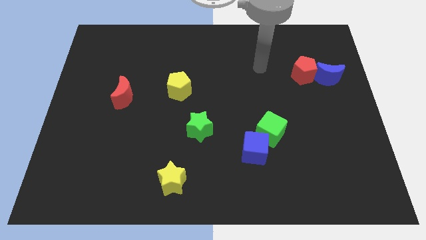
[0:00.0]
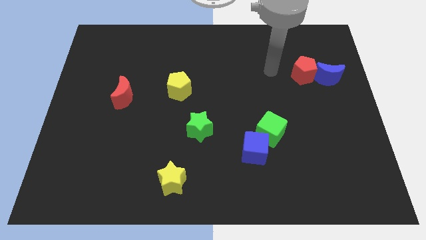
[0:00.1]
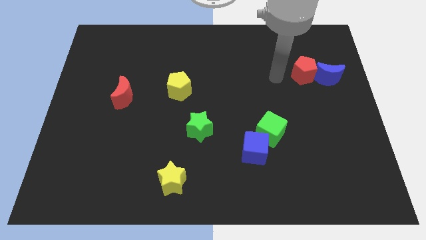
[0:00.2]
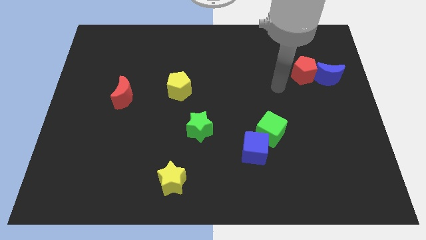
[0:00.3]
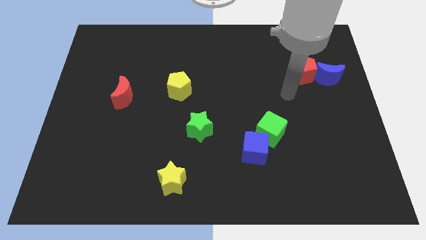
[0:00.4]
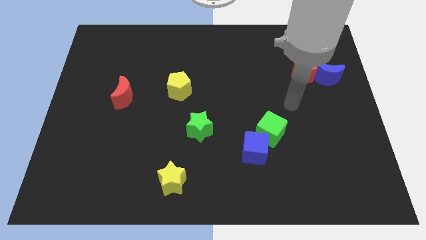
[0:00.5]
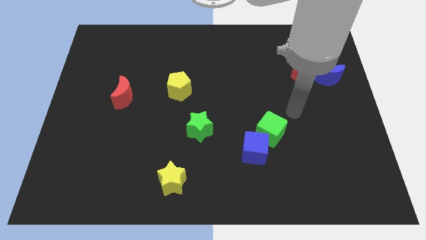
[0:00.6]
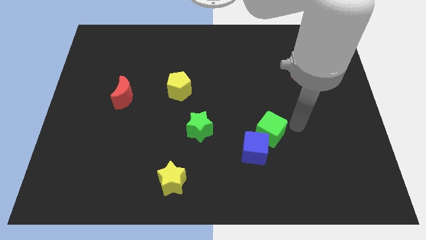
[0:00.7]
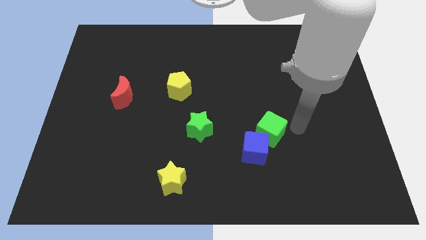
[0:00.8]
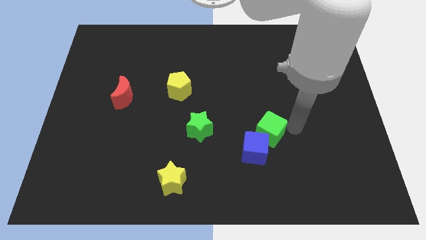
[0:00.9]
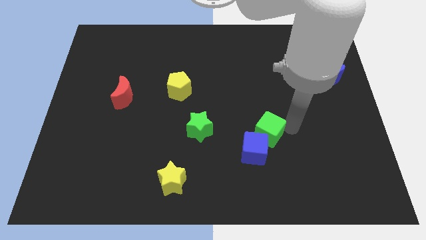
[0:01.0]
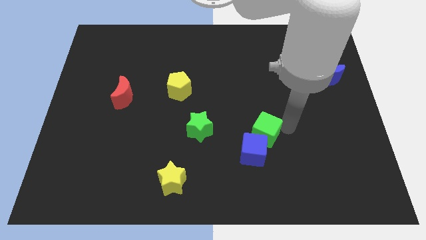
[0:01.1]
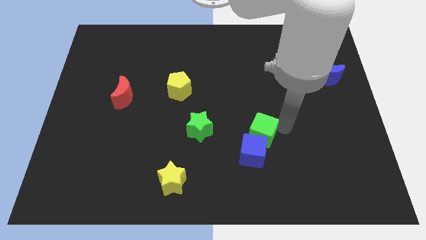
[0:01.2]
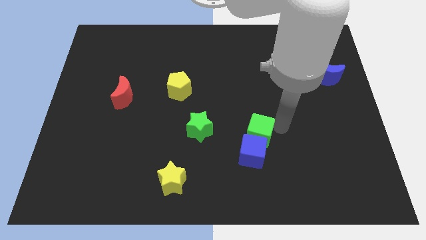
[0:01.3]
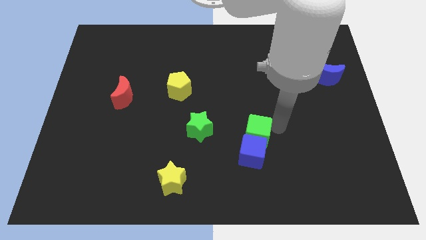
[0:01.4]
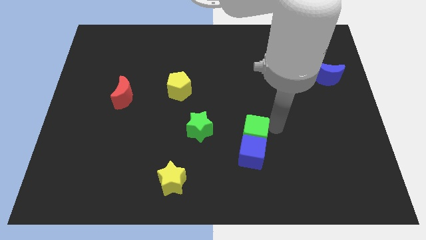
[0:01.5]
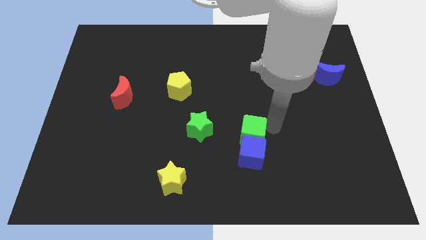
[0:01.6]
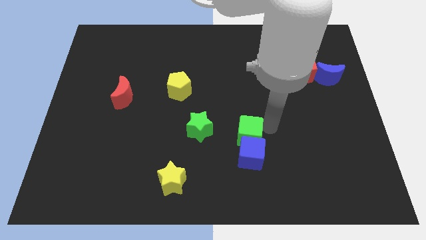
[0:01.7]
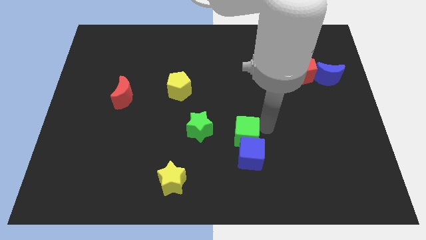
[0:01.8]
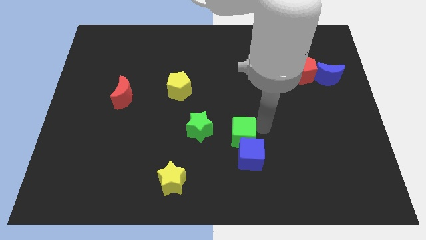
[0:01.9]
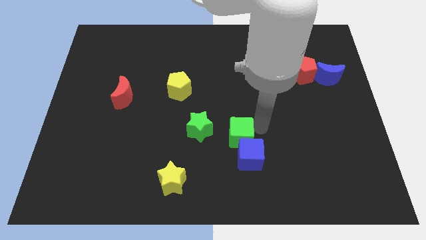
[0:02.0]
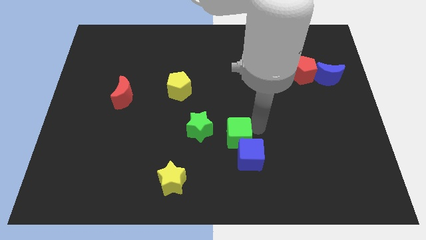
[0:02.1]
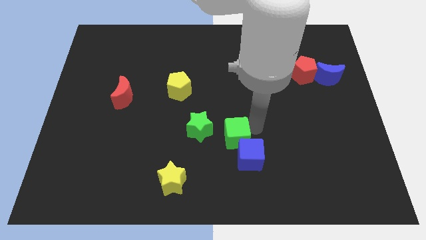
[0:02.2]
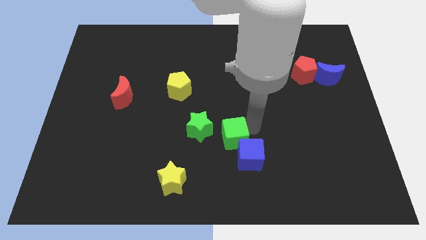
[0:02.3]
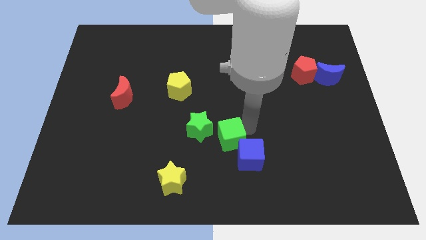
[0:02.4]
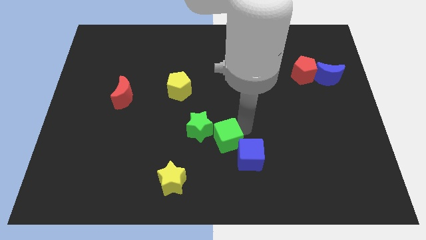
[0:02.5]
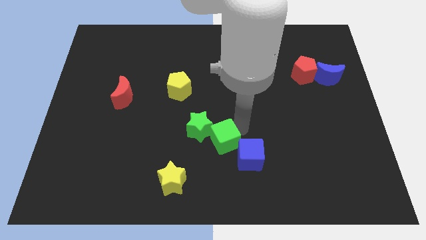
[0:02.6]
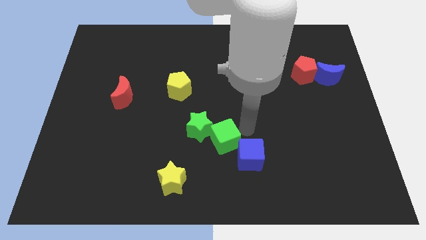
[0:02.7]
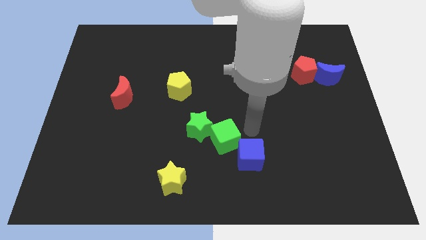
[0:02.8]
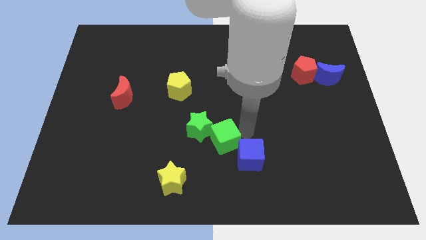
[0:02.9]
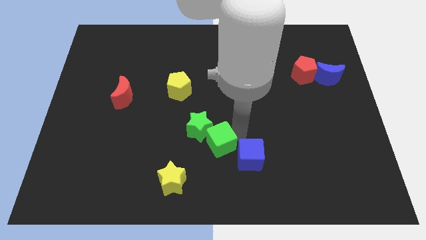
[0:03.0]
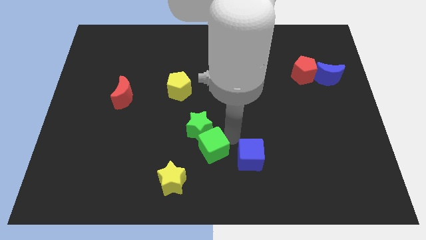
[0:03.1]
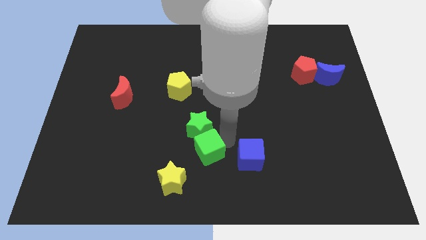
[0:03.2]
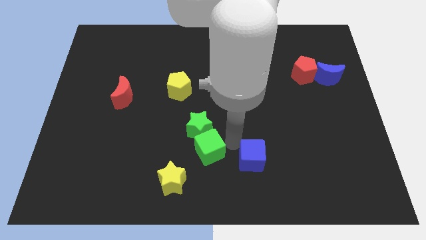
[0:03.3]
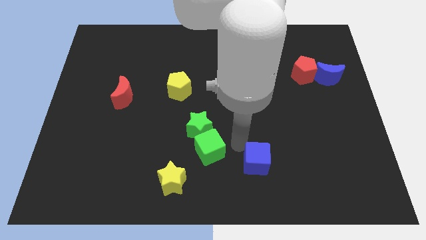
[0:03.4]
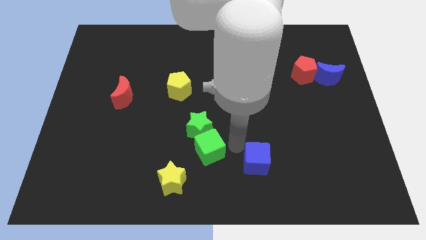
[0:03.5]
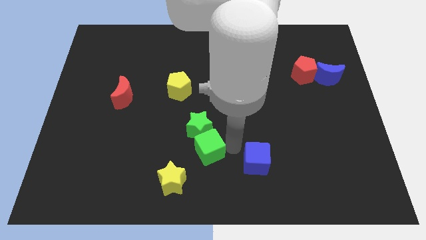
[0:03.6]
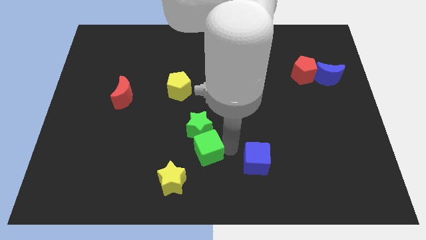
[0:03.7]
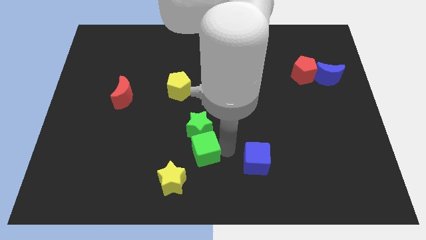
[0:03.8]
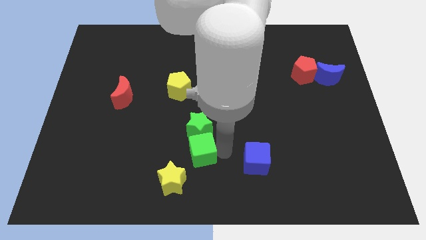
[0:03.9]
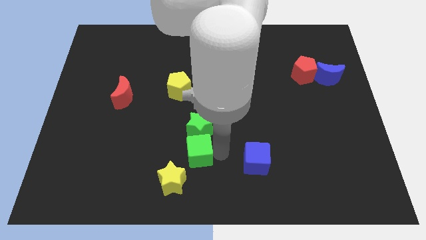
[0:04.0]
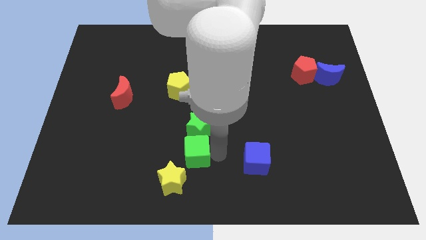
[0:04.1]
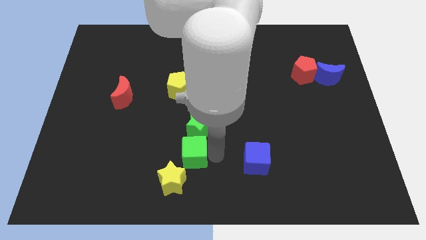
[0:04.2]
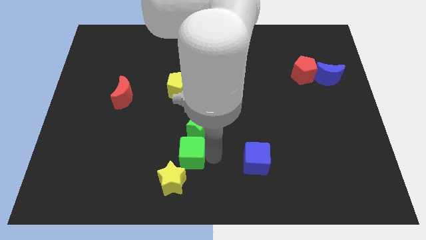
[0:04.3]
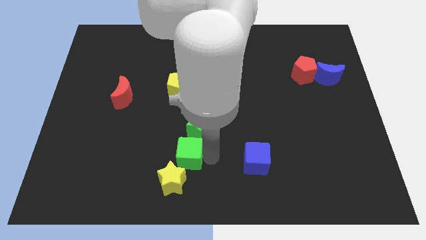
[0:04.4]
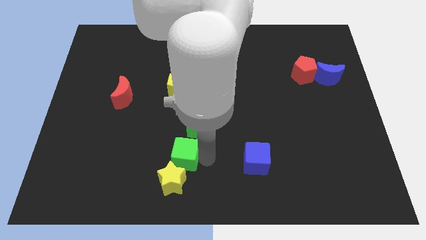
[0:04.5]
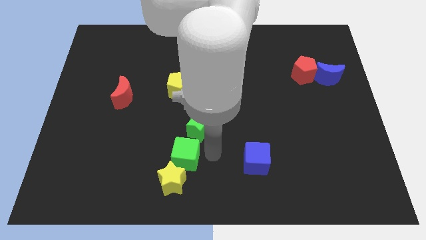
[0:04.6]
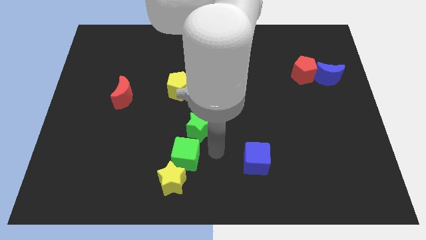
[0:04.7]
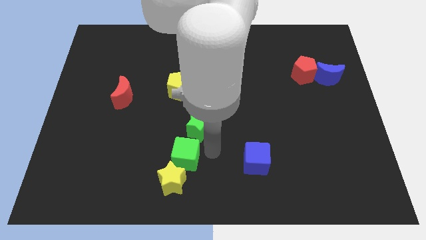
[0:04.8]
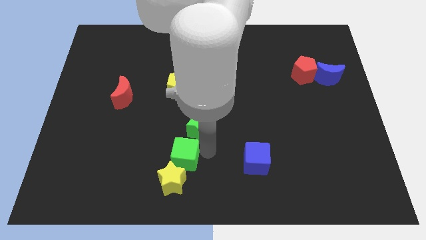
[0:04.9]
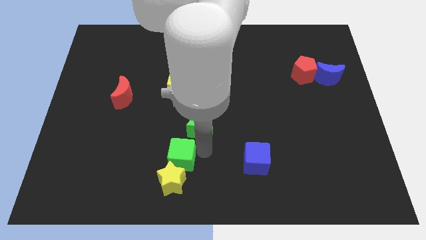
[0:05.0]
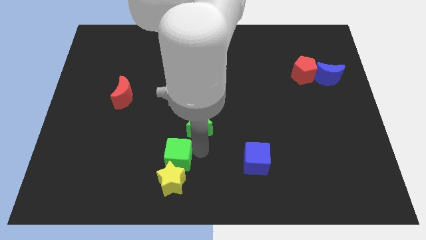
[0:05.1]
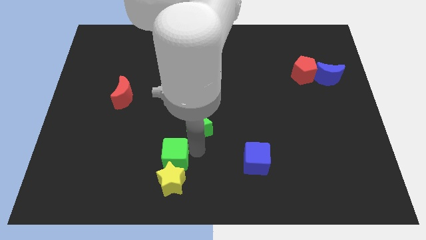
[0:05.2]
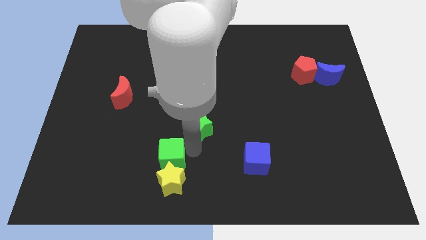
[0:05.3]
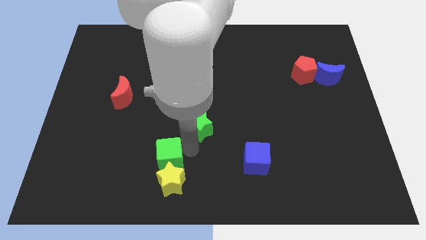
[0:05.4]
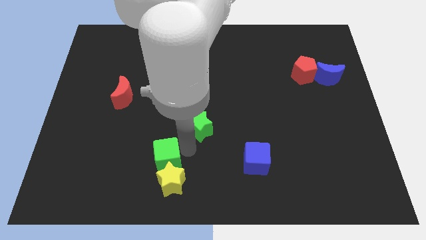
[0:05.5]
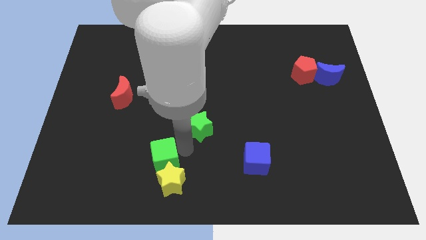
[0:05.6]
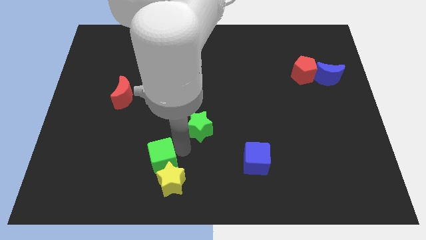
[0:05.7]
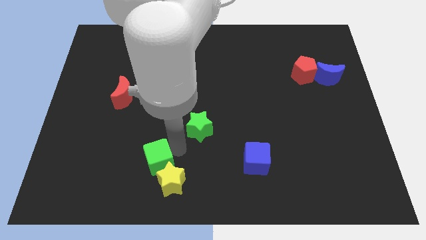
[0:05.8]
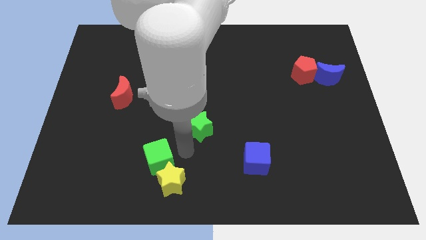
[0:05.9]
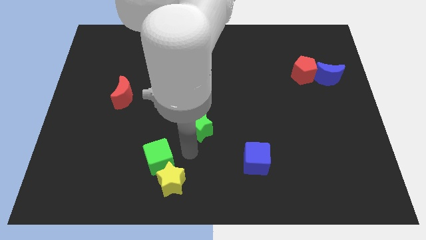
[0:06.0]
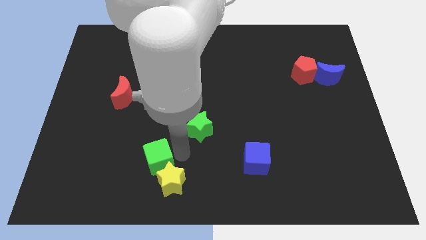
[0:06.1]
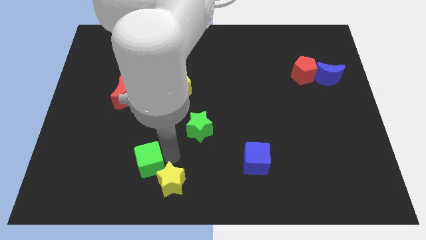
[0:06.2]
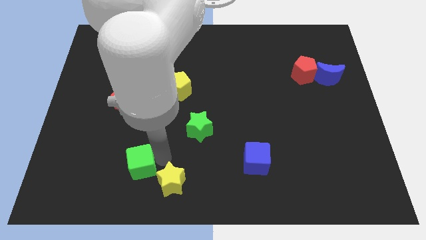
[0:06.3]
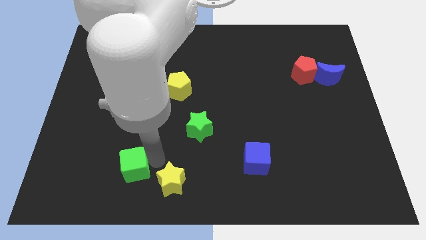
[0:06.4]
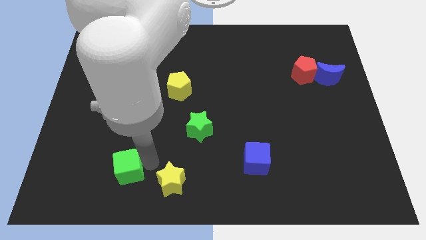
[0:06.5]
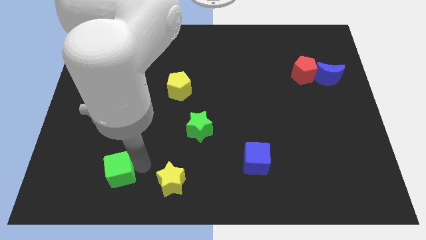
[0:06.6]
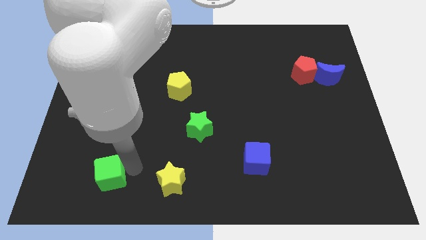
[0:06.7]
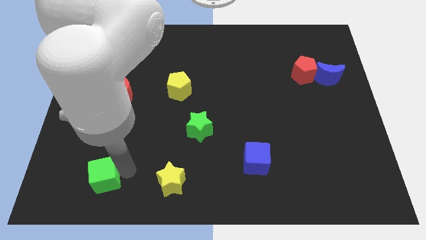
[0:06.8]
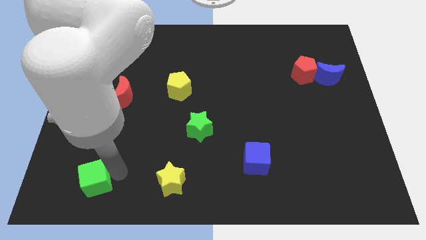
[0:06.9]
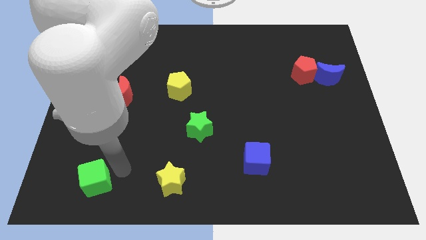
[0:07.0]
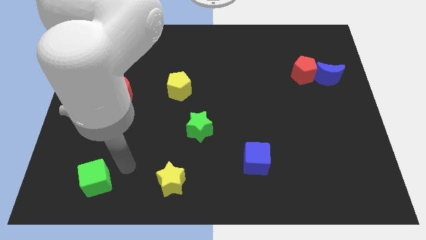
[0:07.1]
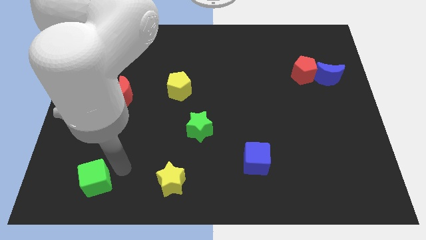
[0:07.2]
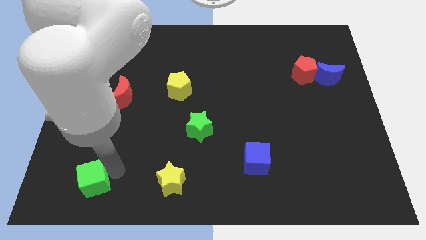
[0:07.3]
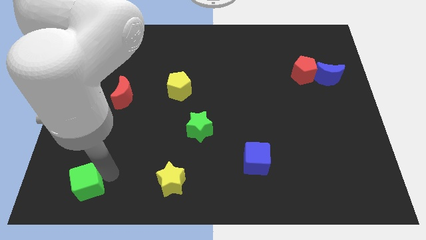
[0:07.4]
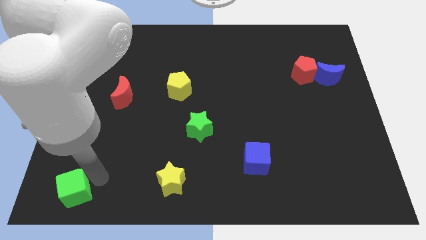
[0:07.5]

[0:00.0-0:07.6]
push the green cube to the bottom left of the board
